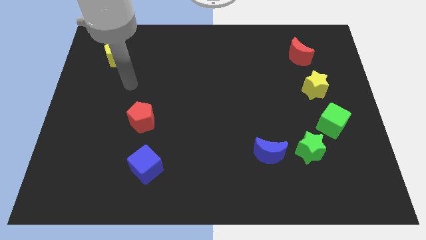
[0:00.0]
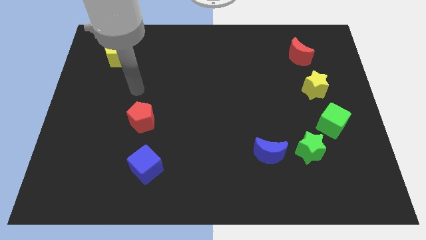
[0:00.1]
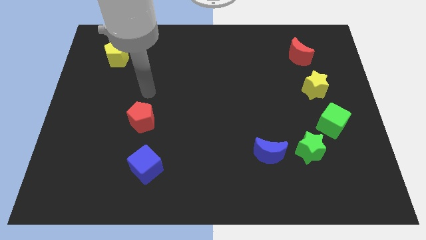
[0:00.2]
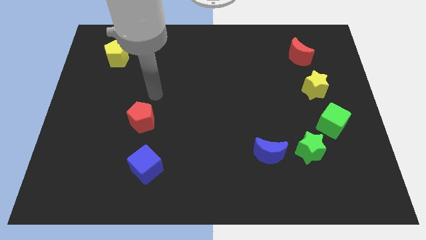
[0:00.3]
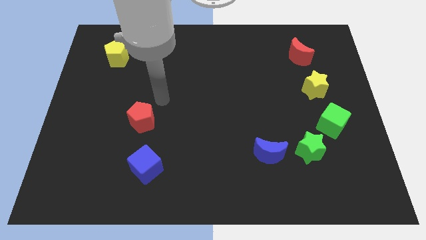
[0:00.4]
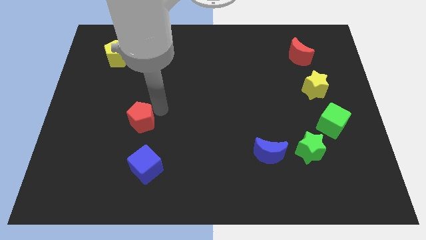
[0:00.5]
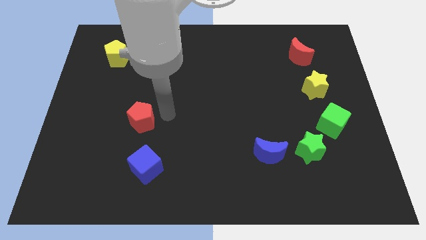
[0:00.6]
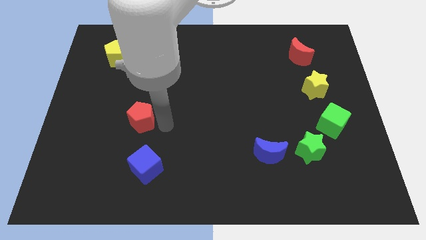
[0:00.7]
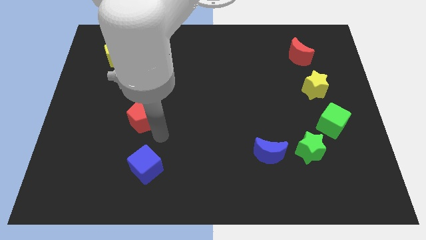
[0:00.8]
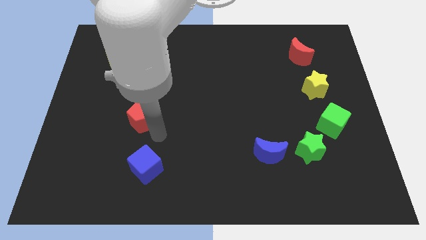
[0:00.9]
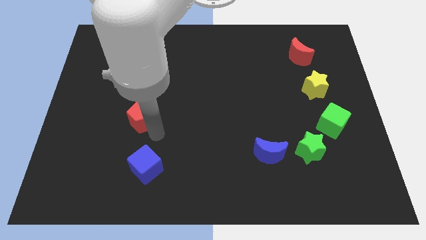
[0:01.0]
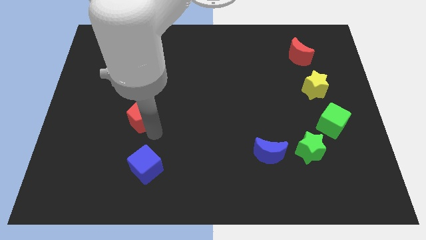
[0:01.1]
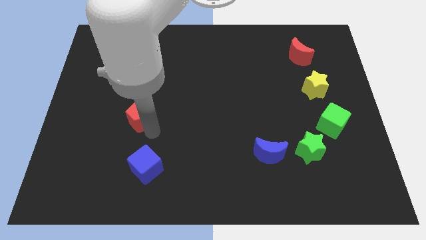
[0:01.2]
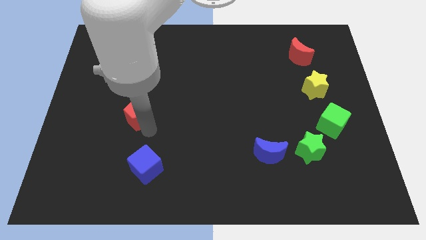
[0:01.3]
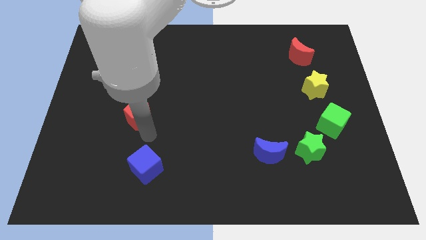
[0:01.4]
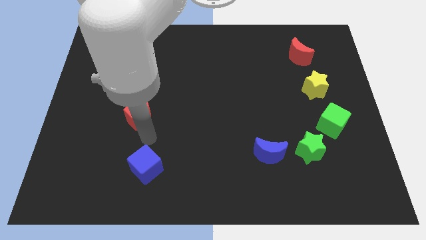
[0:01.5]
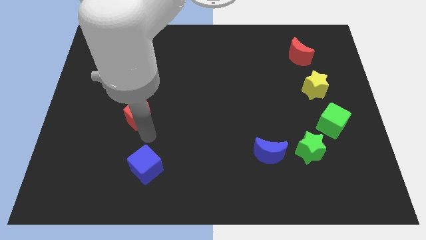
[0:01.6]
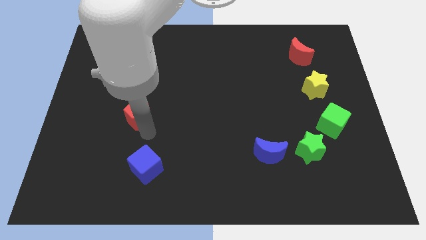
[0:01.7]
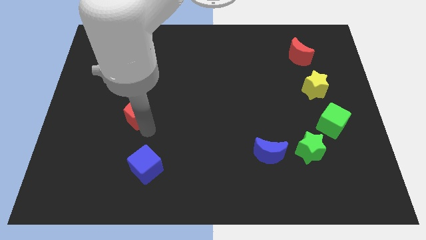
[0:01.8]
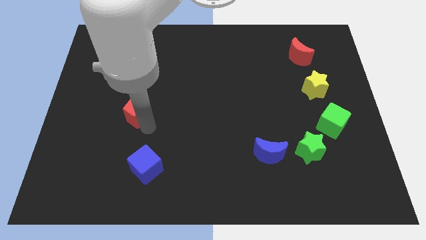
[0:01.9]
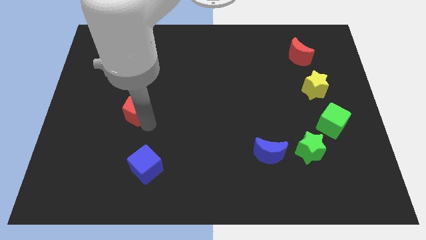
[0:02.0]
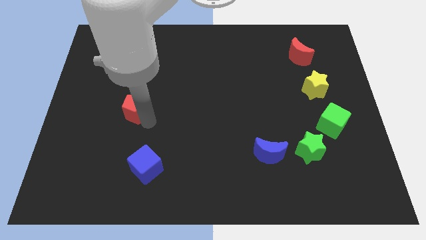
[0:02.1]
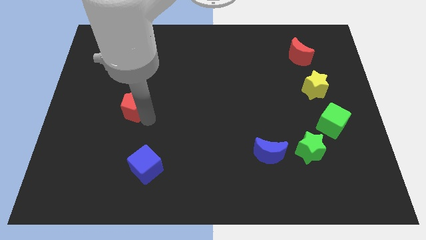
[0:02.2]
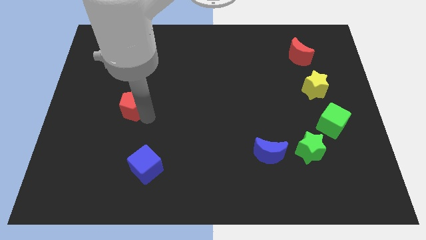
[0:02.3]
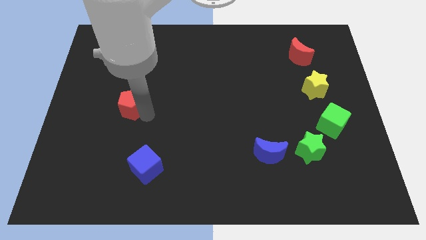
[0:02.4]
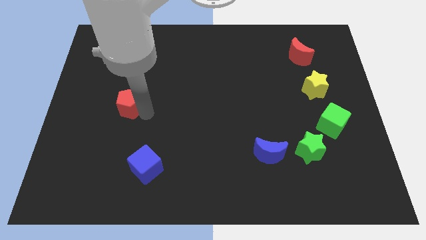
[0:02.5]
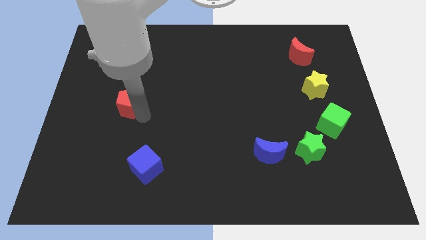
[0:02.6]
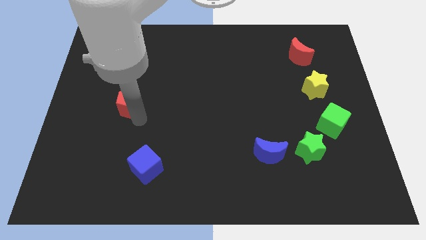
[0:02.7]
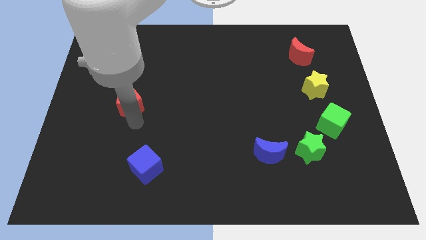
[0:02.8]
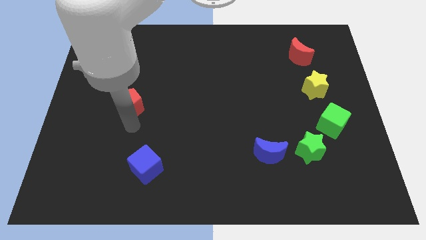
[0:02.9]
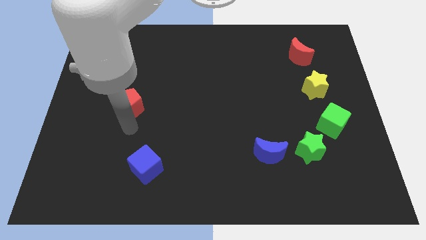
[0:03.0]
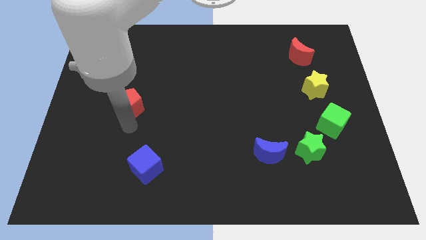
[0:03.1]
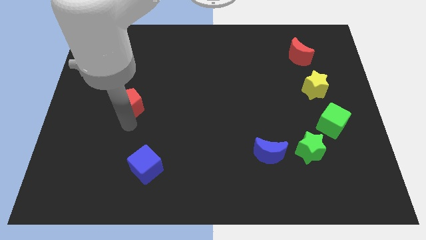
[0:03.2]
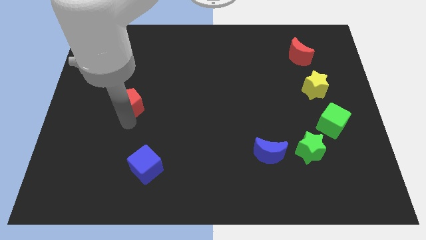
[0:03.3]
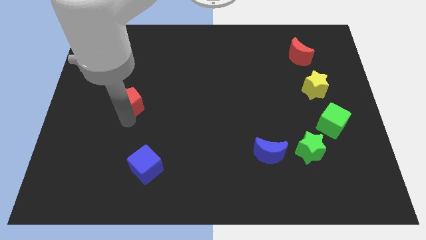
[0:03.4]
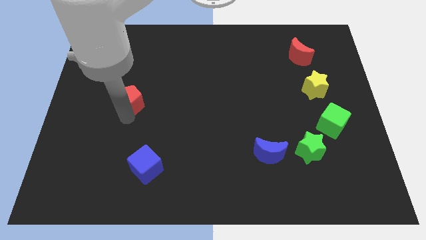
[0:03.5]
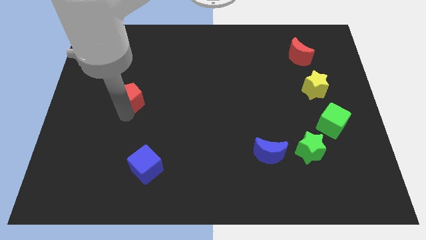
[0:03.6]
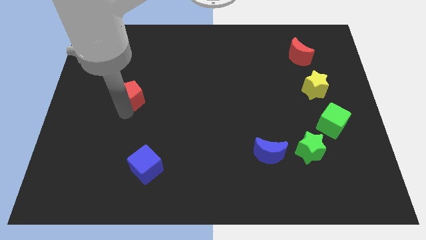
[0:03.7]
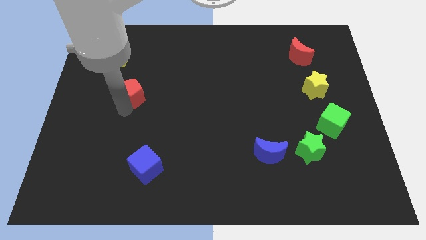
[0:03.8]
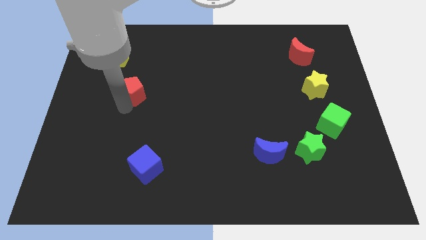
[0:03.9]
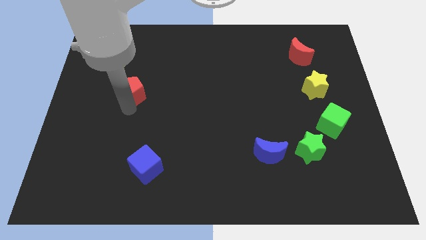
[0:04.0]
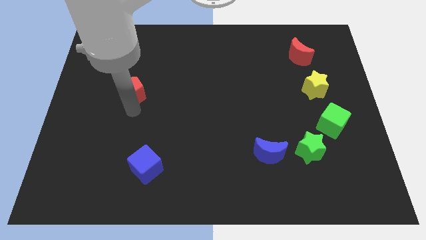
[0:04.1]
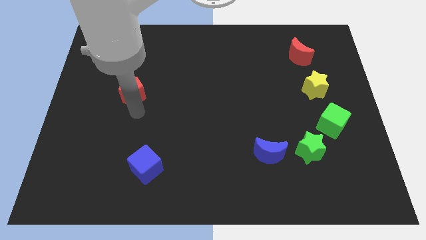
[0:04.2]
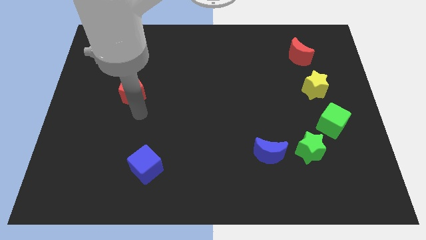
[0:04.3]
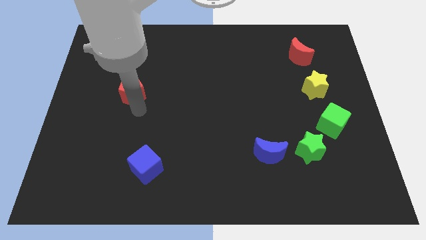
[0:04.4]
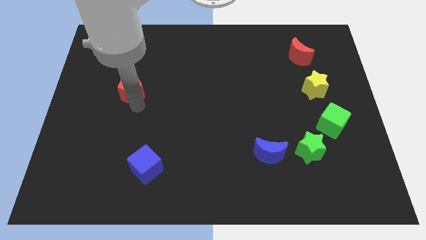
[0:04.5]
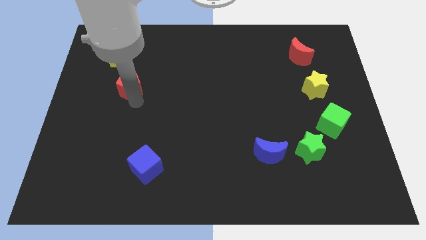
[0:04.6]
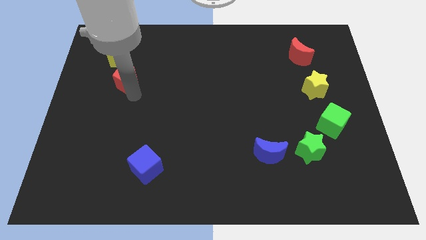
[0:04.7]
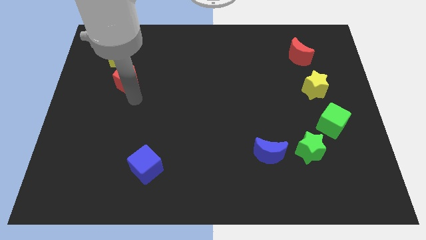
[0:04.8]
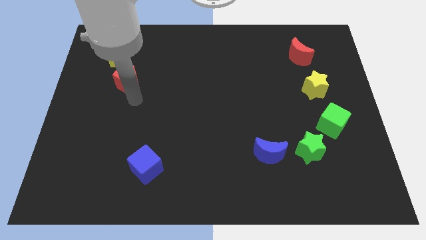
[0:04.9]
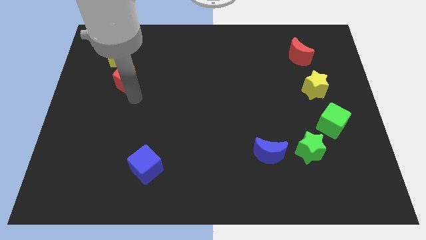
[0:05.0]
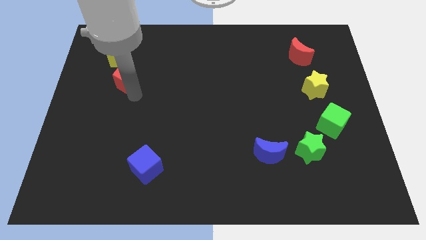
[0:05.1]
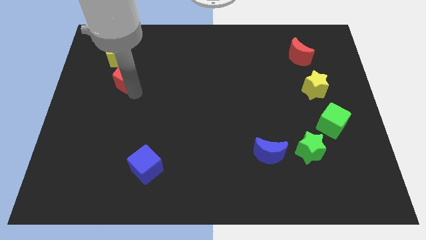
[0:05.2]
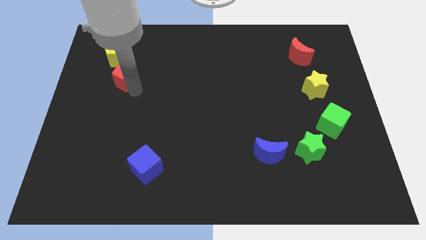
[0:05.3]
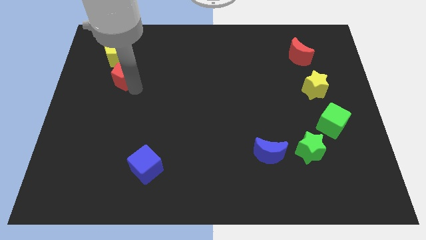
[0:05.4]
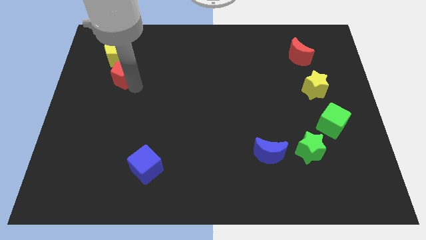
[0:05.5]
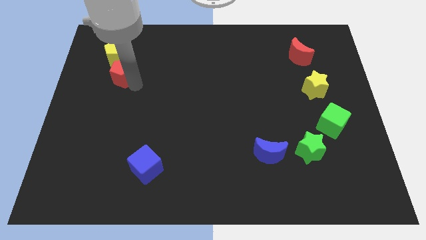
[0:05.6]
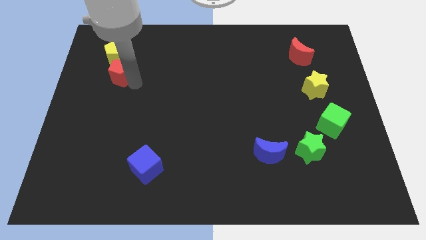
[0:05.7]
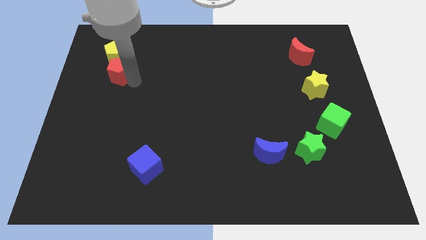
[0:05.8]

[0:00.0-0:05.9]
push the red pentagon close to the yellow pentagon

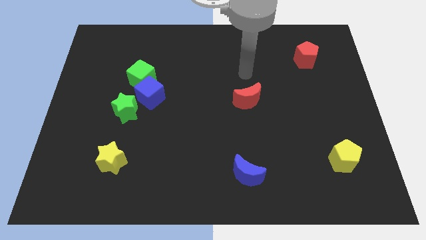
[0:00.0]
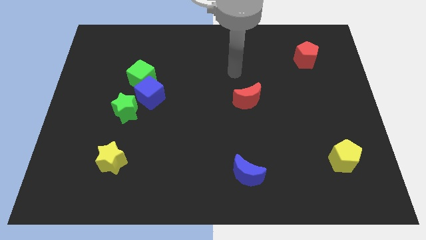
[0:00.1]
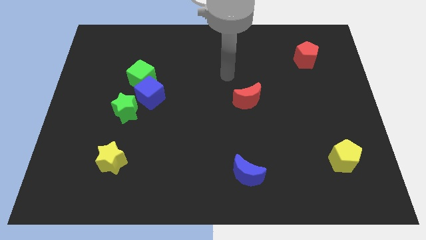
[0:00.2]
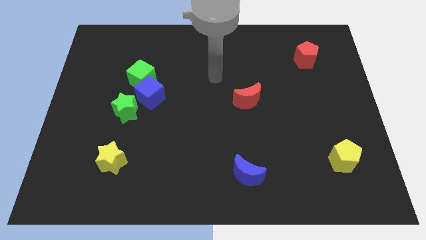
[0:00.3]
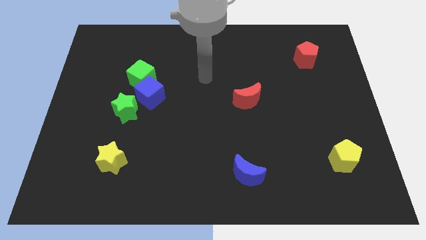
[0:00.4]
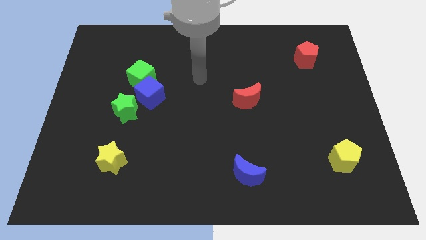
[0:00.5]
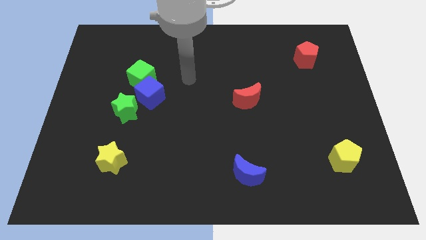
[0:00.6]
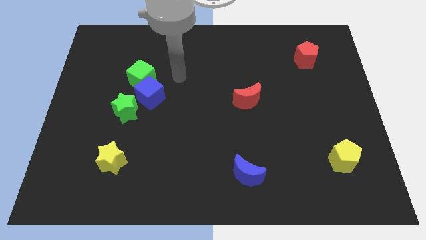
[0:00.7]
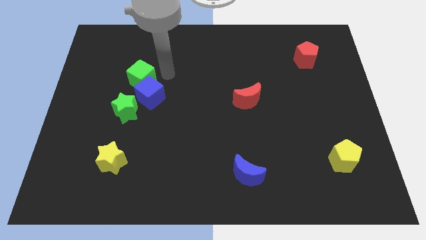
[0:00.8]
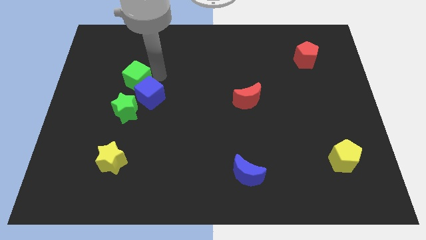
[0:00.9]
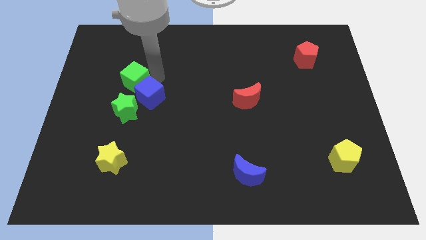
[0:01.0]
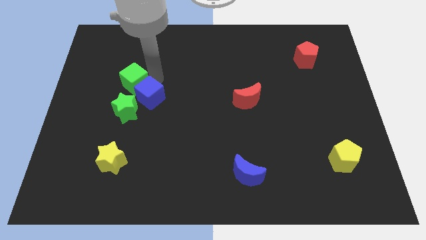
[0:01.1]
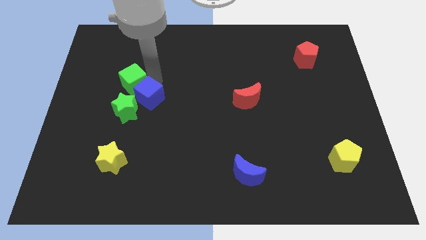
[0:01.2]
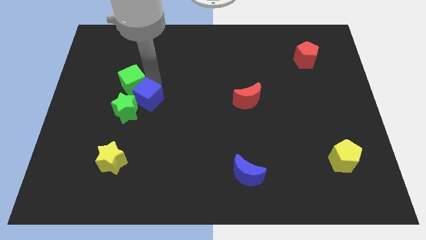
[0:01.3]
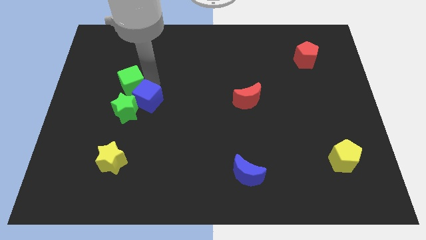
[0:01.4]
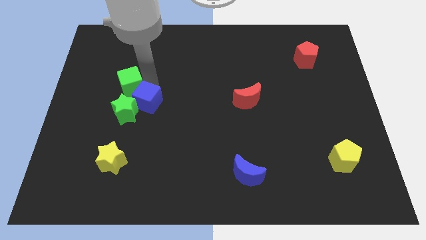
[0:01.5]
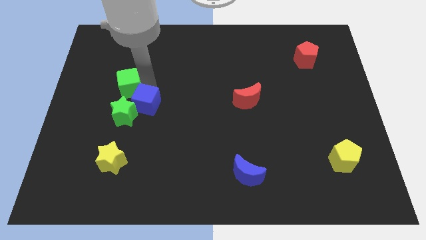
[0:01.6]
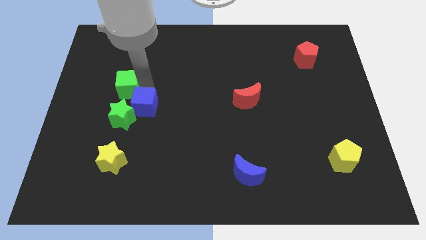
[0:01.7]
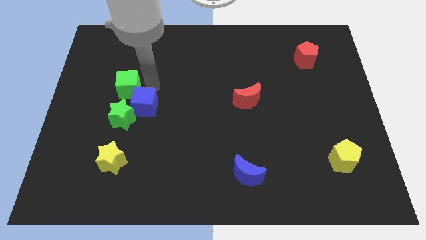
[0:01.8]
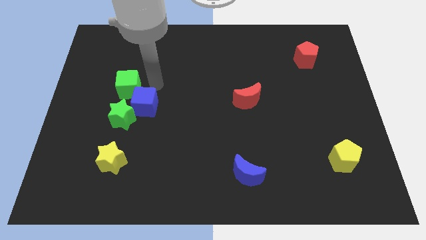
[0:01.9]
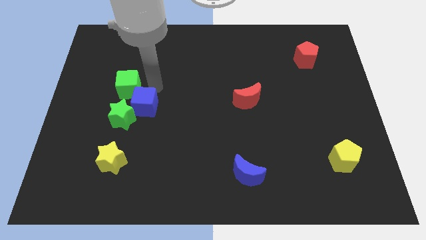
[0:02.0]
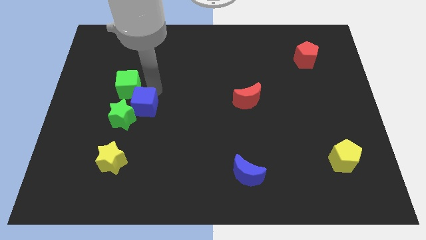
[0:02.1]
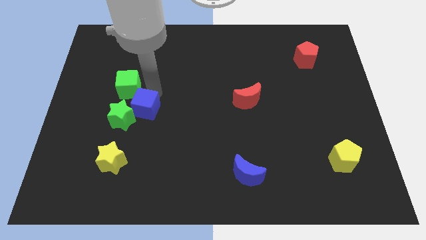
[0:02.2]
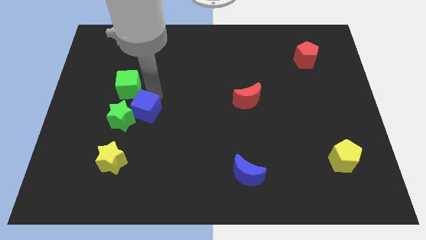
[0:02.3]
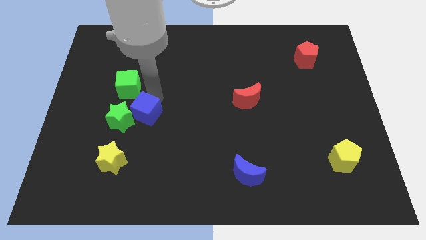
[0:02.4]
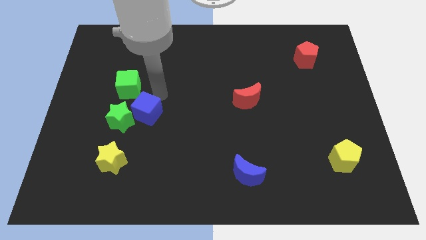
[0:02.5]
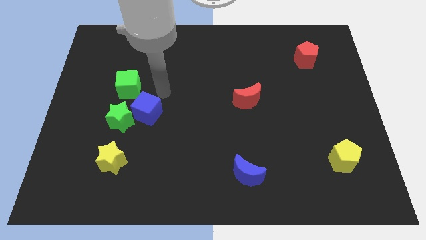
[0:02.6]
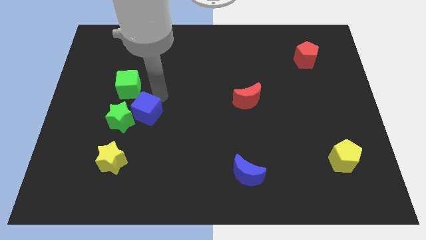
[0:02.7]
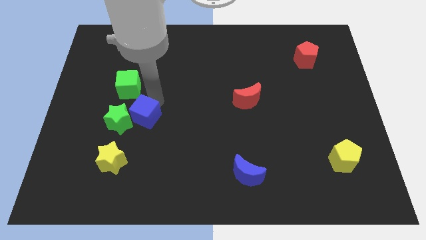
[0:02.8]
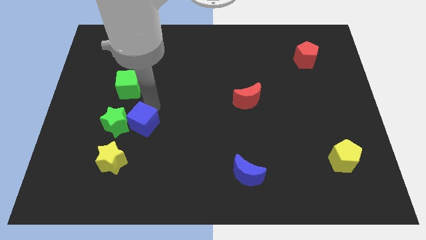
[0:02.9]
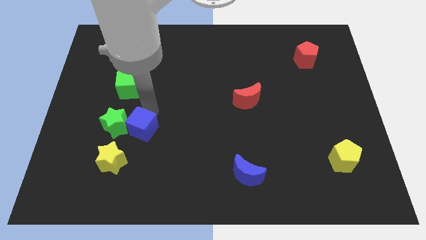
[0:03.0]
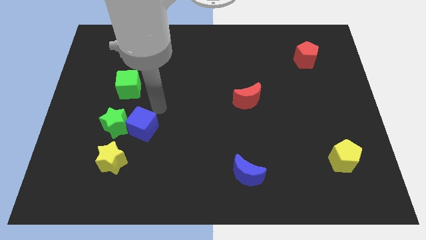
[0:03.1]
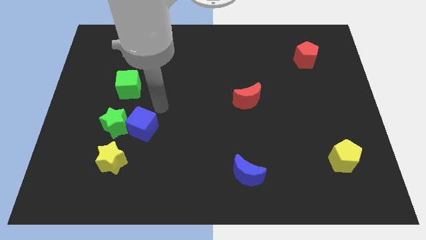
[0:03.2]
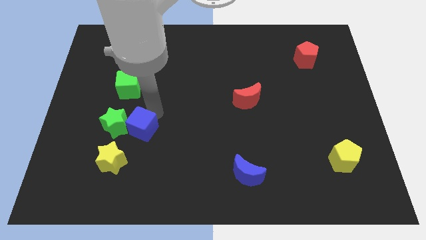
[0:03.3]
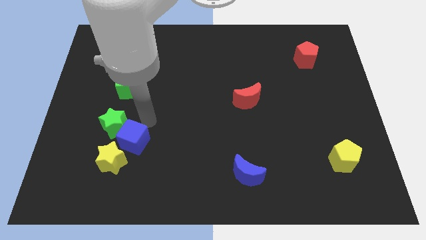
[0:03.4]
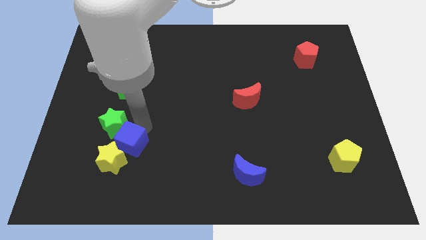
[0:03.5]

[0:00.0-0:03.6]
push the blue cube to the yellow star
